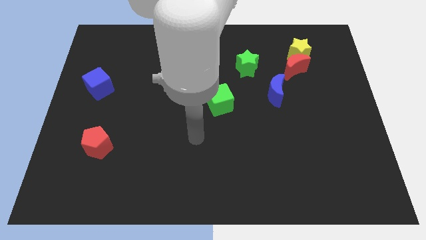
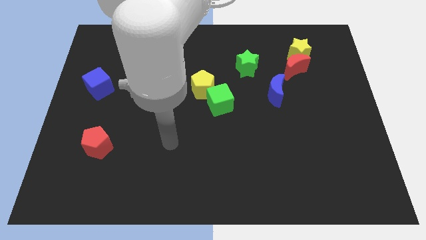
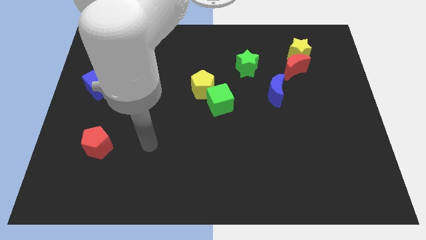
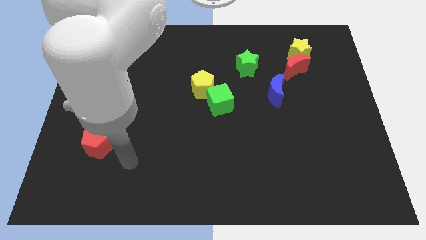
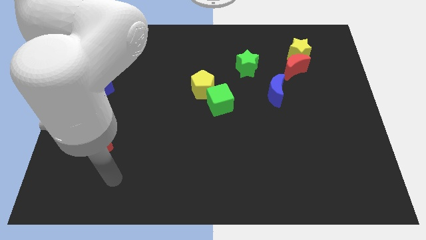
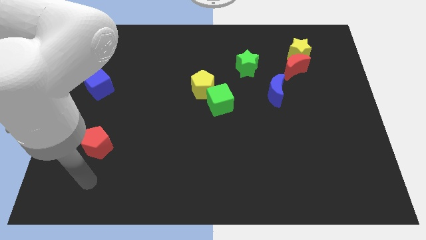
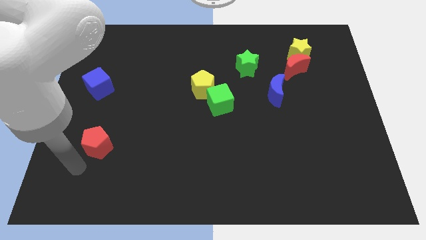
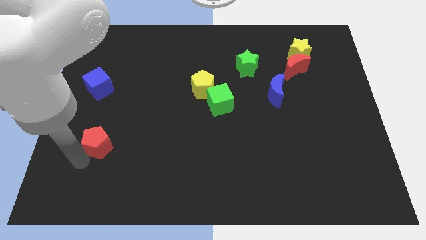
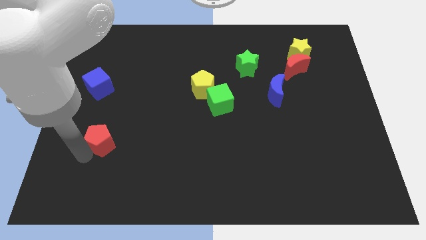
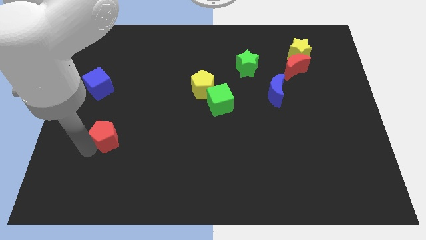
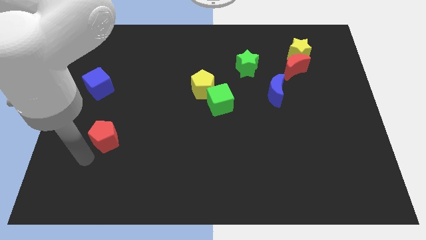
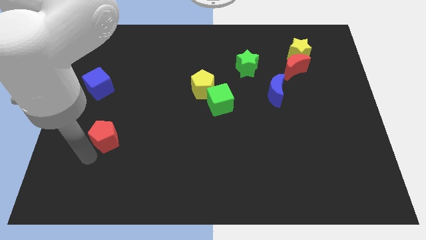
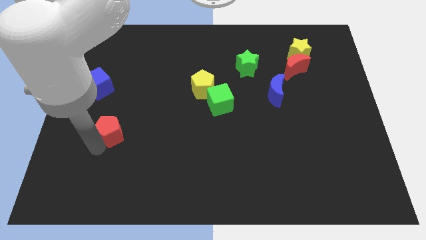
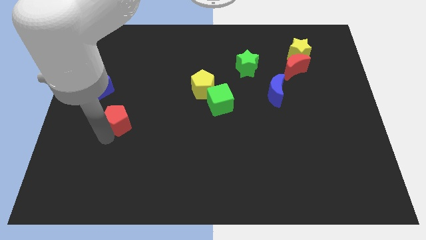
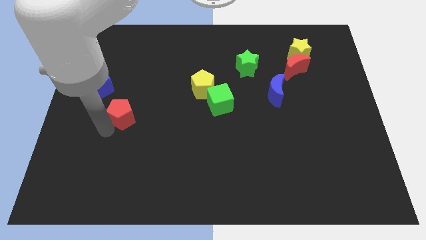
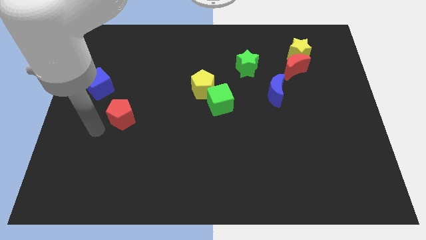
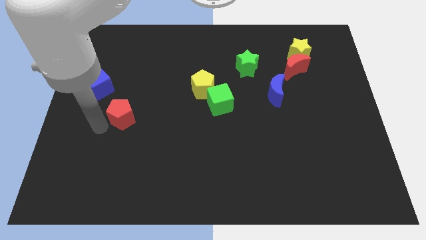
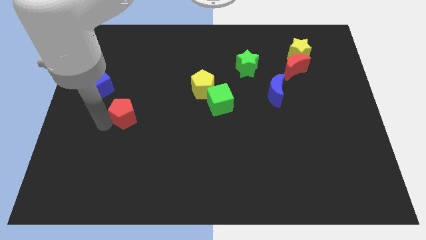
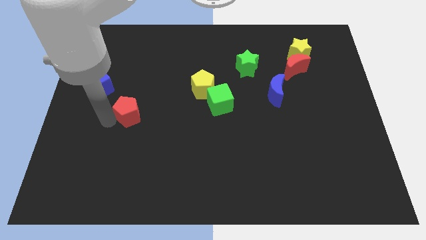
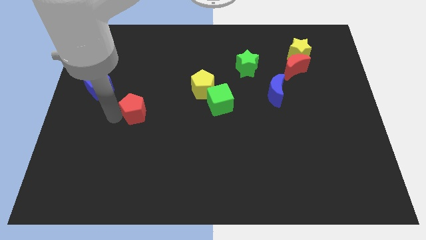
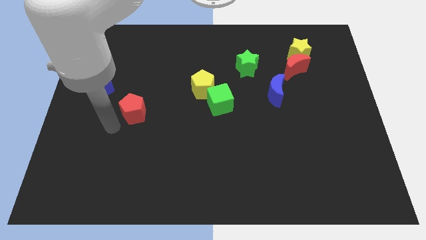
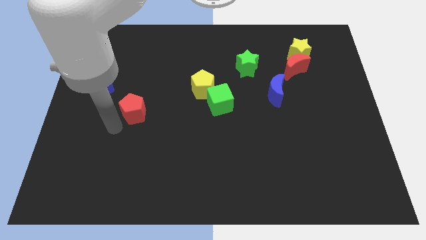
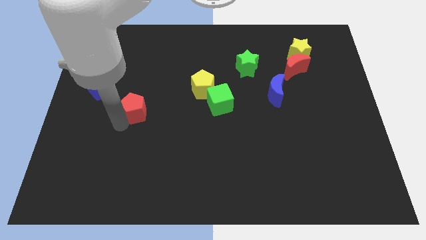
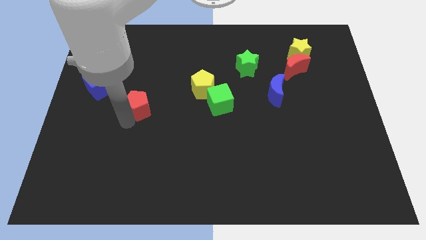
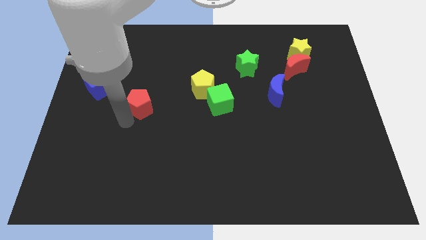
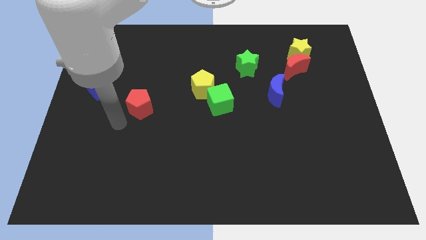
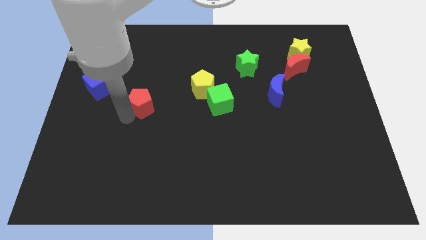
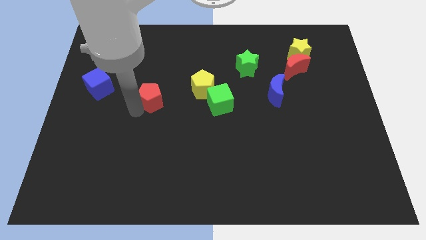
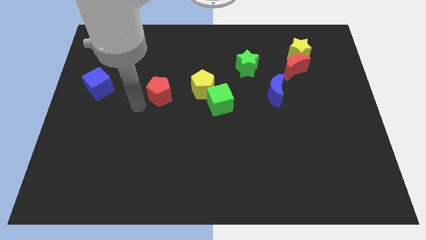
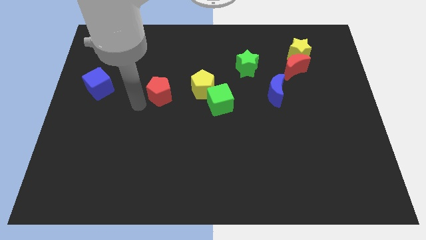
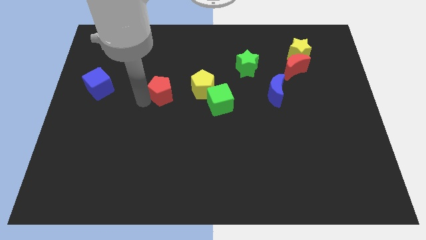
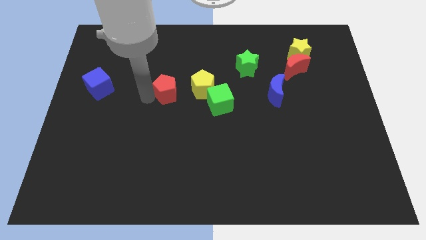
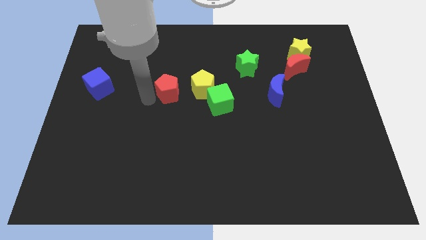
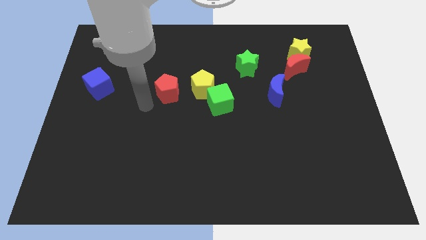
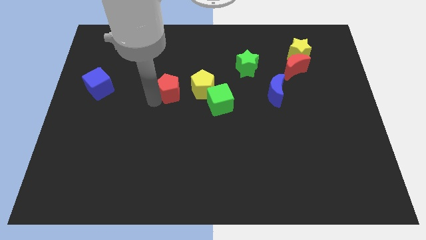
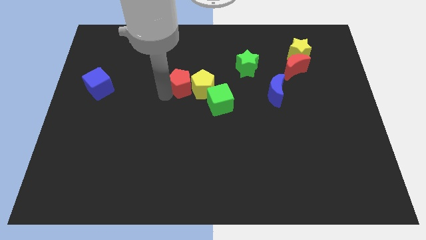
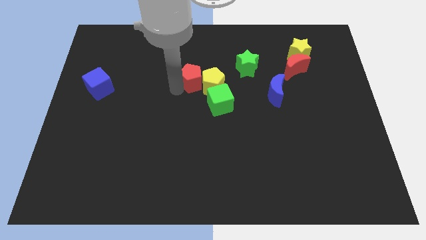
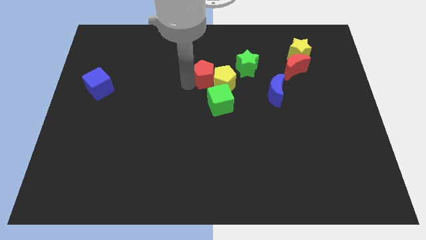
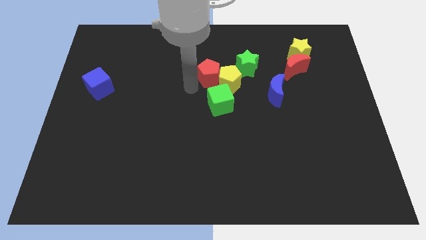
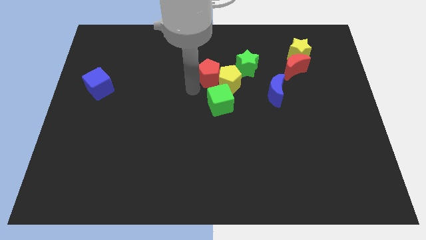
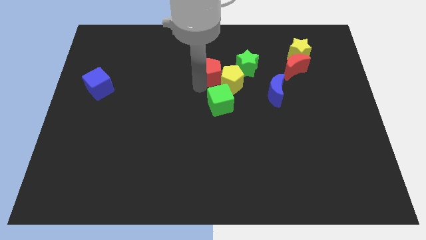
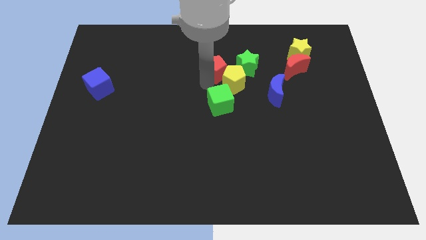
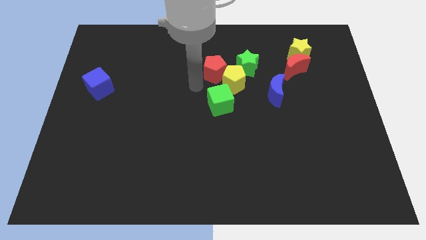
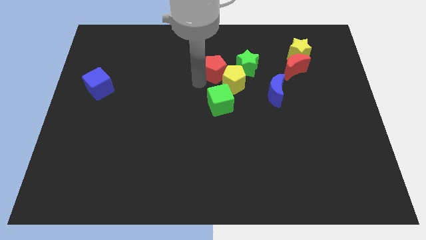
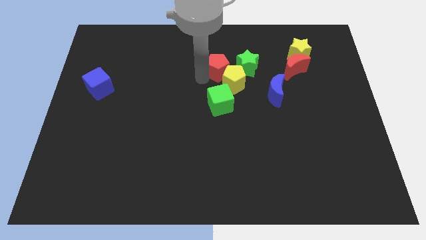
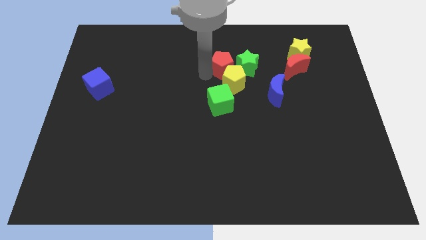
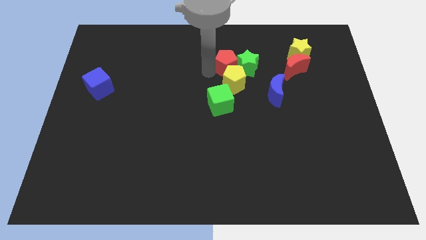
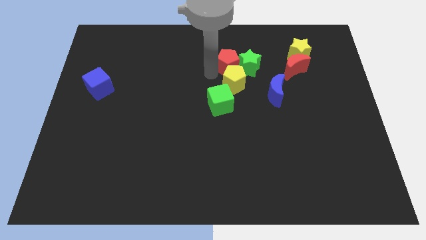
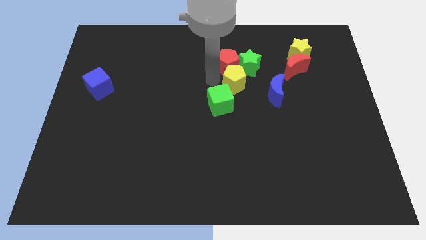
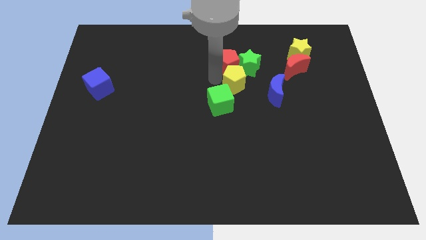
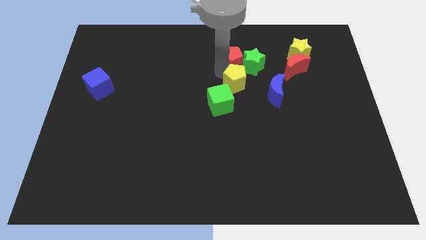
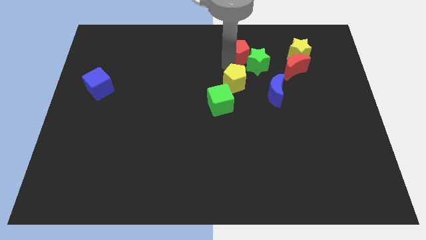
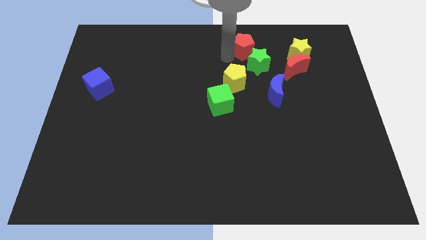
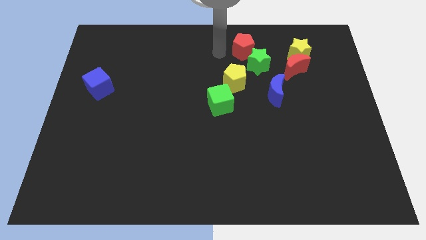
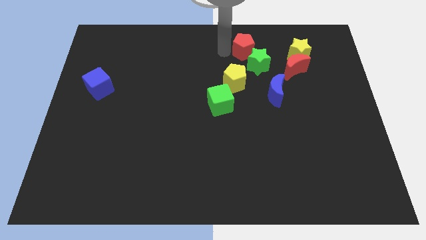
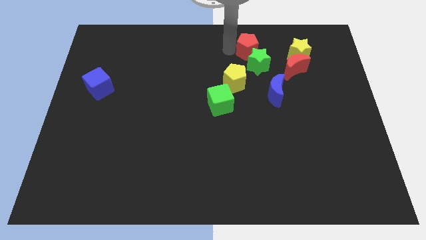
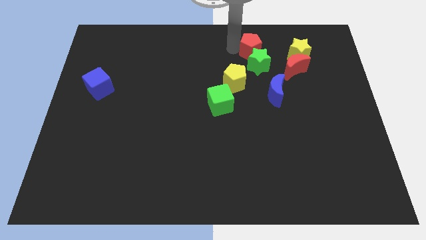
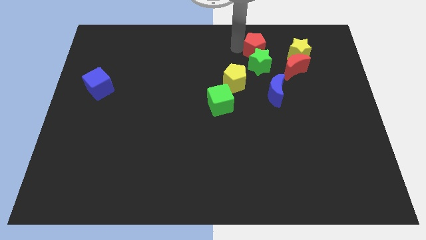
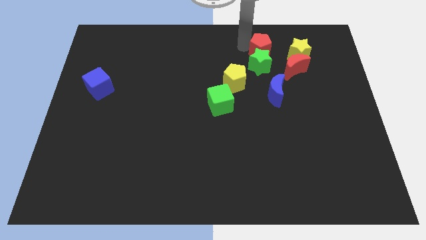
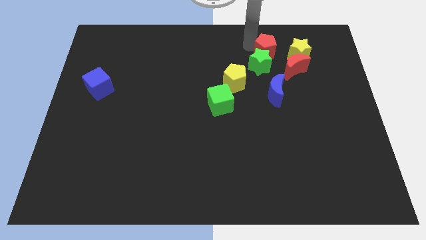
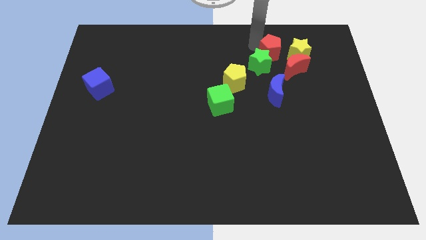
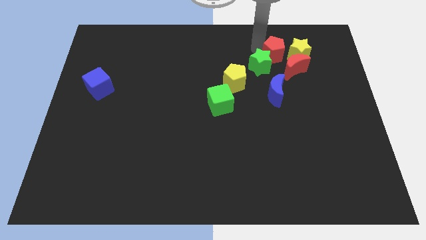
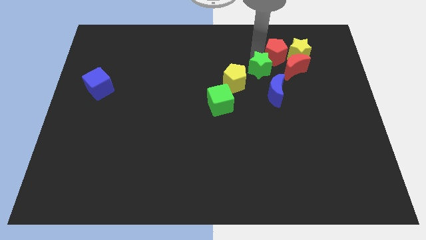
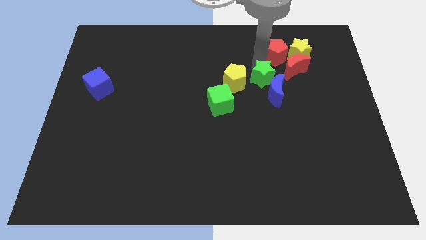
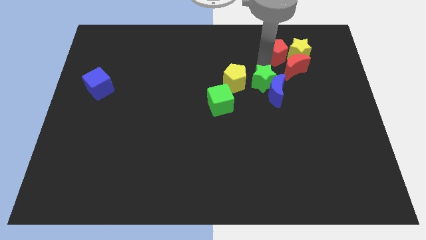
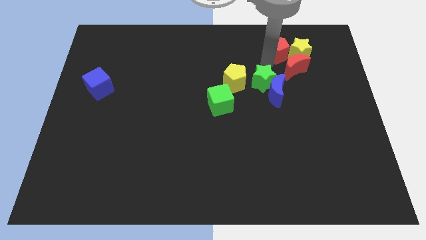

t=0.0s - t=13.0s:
slide the red pentagon to the yellow star

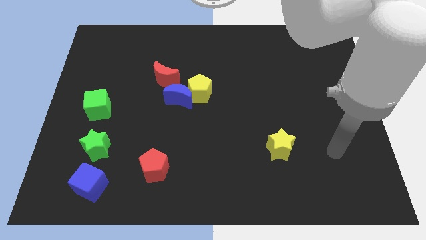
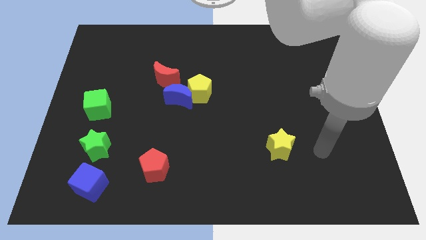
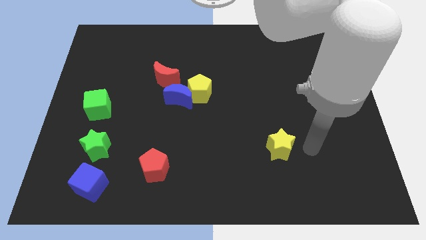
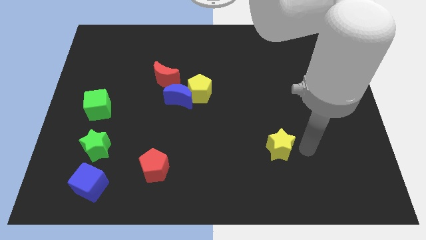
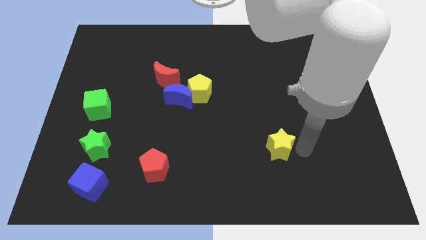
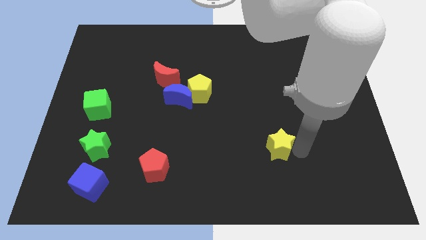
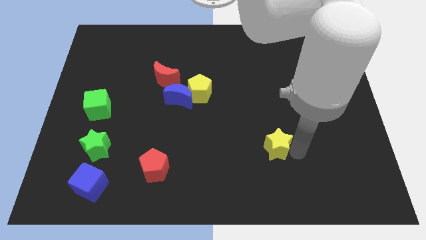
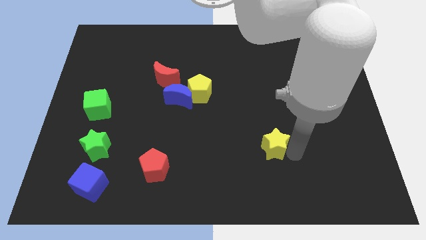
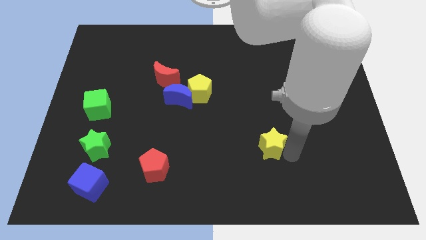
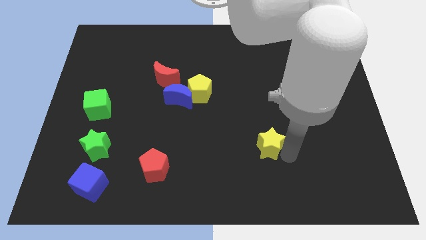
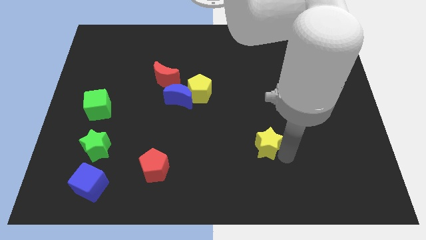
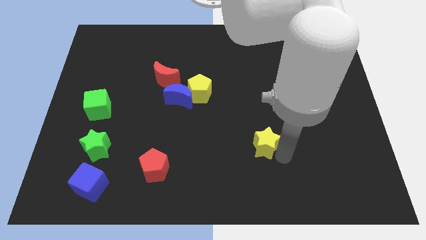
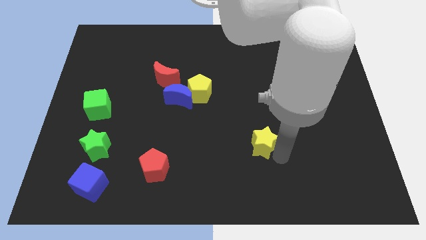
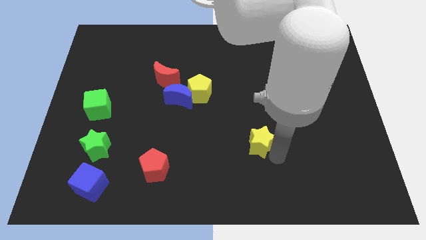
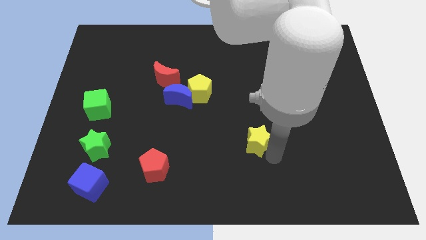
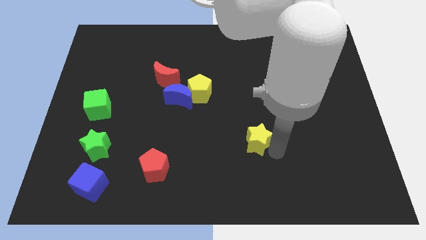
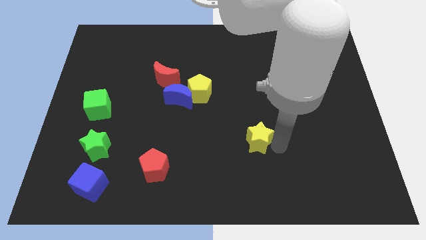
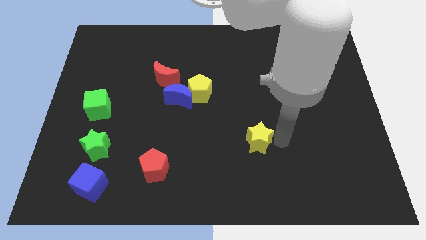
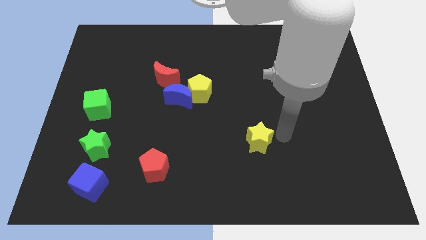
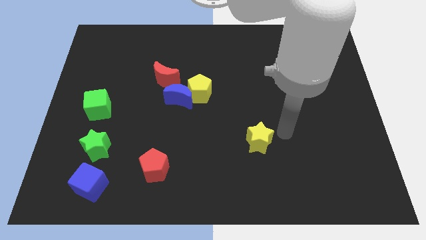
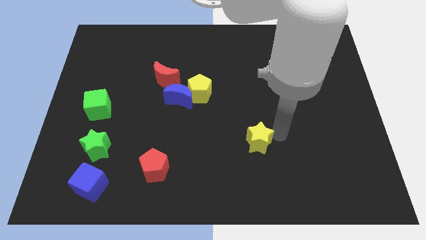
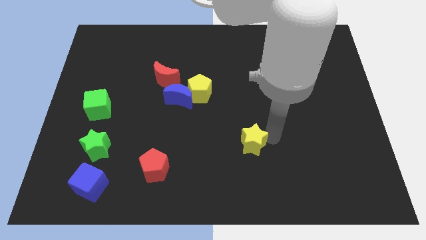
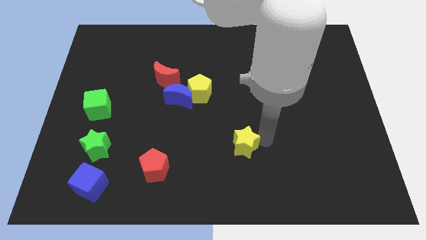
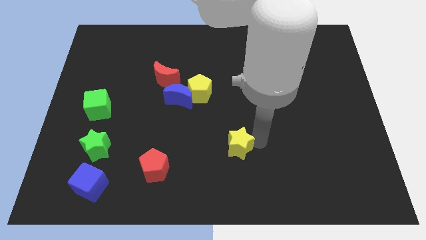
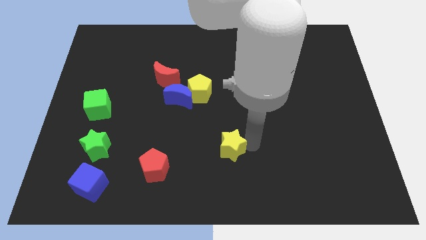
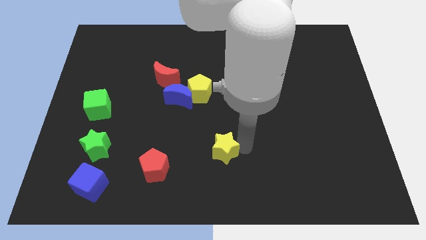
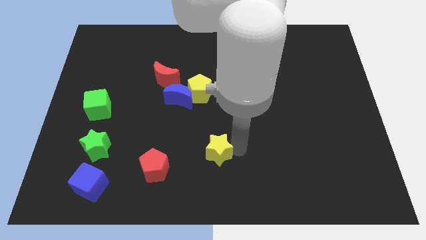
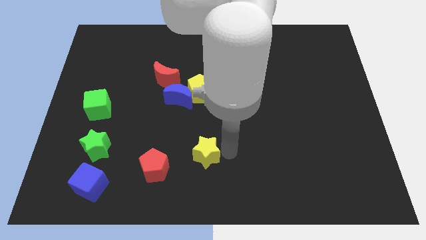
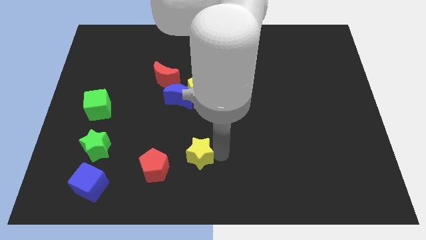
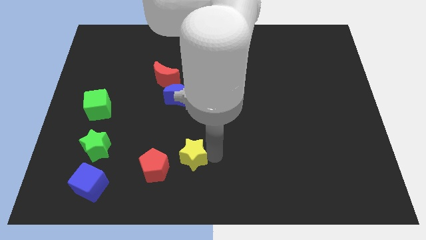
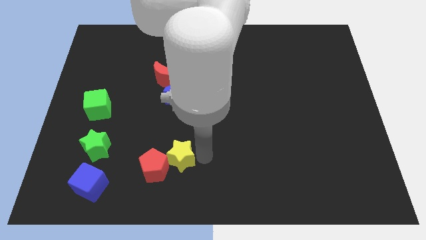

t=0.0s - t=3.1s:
move the yellow star close to the red pentagon
